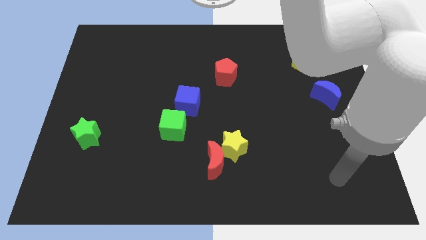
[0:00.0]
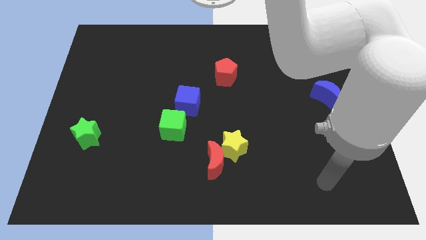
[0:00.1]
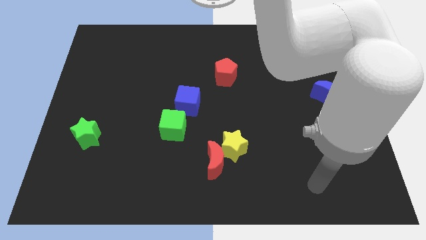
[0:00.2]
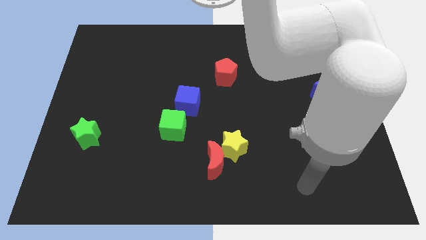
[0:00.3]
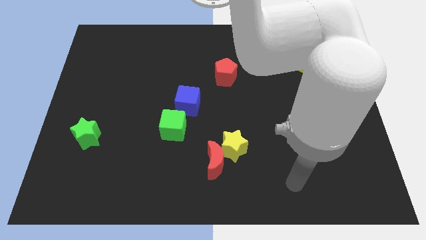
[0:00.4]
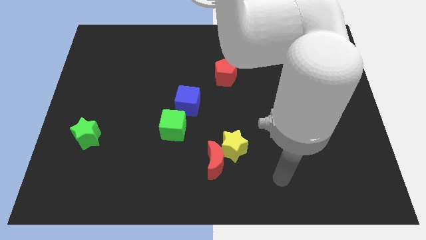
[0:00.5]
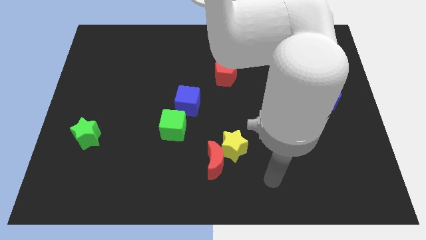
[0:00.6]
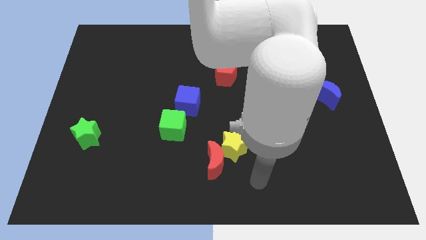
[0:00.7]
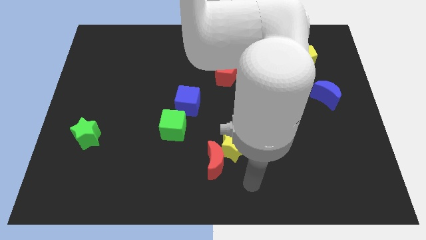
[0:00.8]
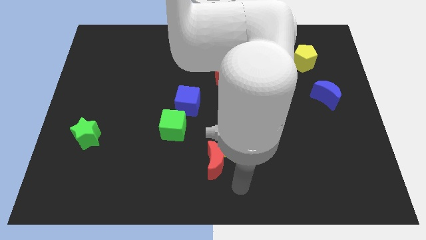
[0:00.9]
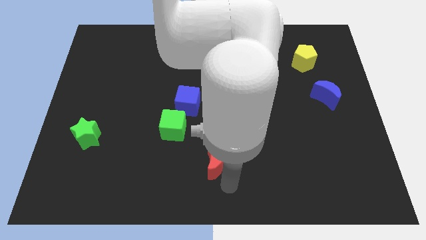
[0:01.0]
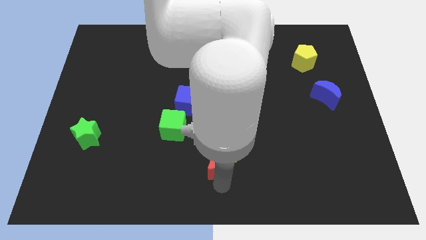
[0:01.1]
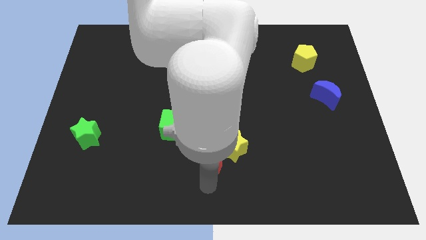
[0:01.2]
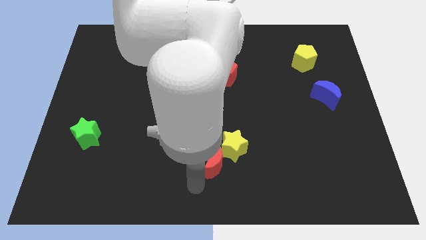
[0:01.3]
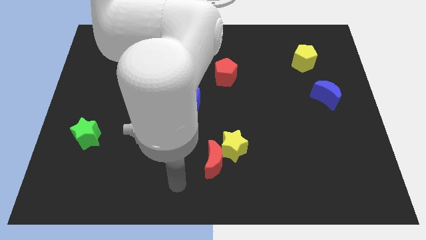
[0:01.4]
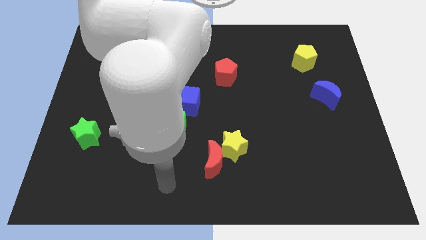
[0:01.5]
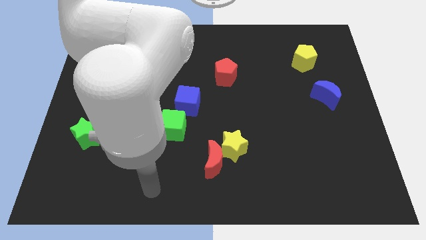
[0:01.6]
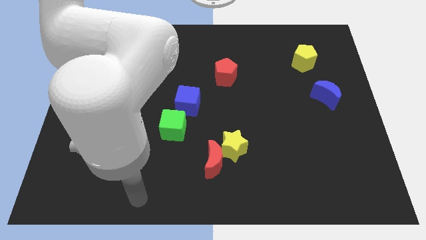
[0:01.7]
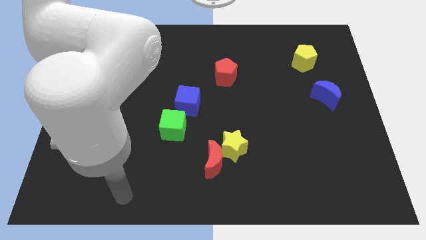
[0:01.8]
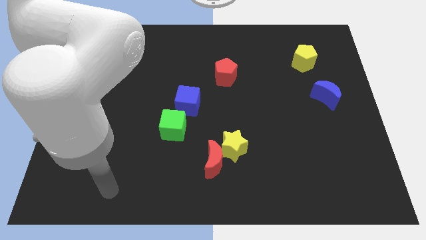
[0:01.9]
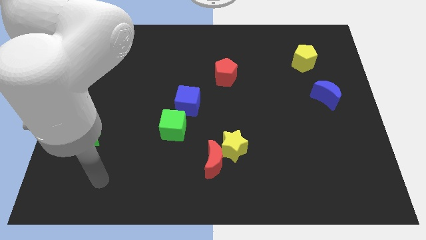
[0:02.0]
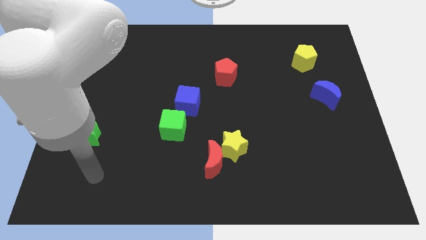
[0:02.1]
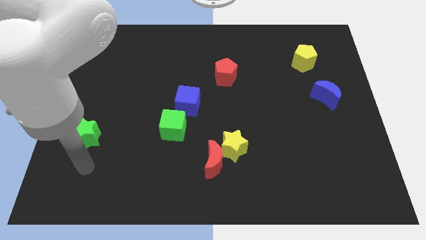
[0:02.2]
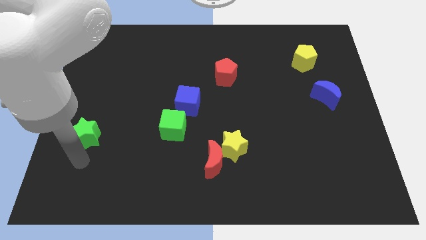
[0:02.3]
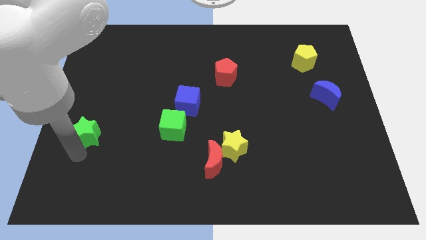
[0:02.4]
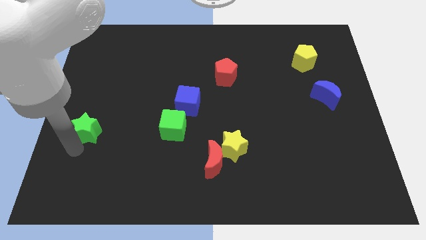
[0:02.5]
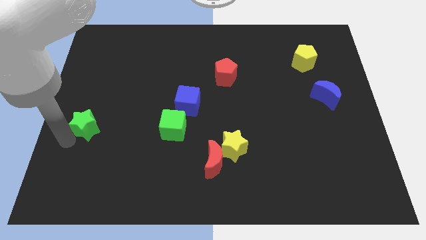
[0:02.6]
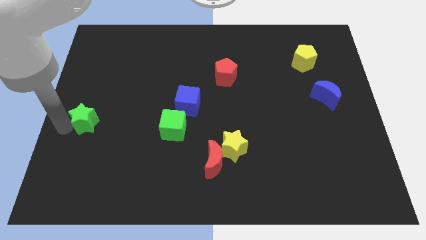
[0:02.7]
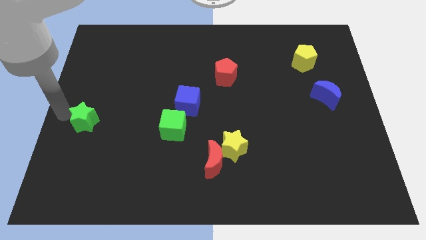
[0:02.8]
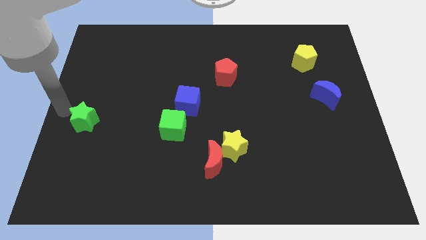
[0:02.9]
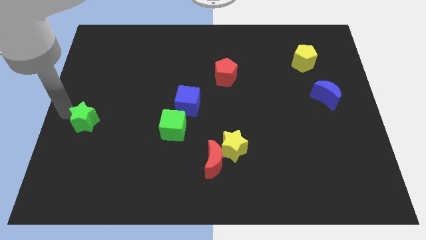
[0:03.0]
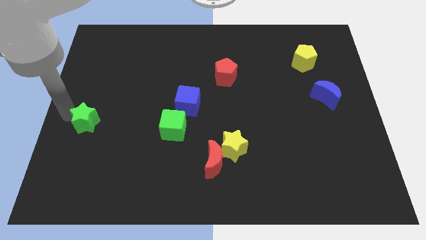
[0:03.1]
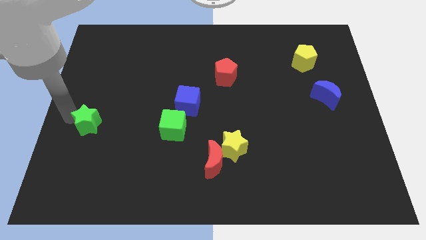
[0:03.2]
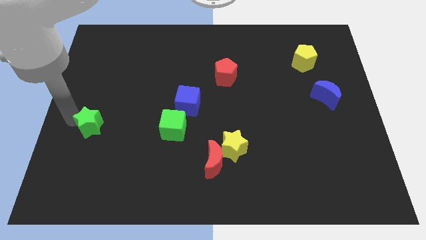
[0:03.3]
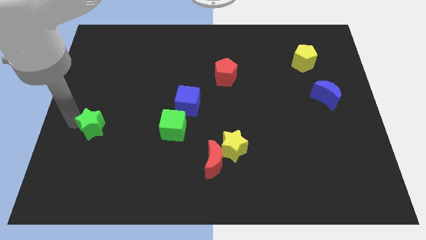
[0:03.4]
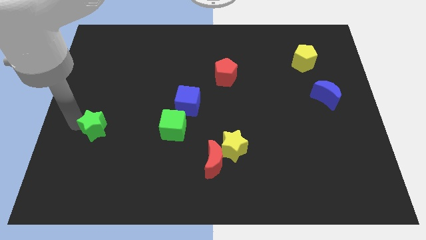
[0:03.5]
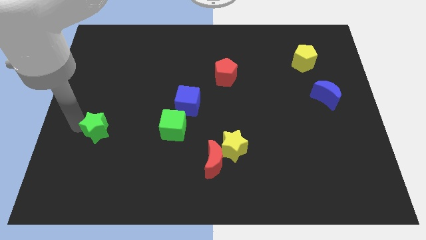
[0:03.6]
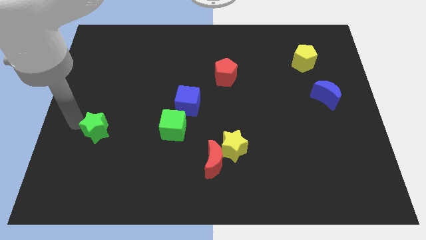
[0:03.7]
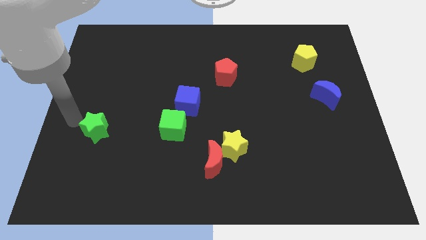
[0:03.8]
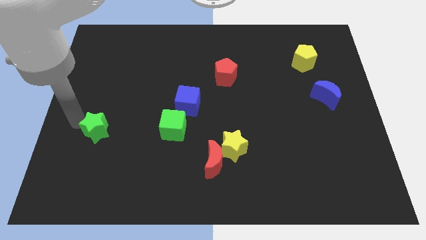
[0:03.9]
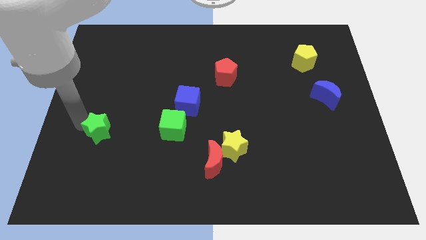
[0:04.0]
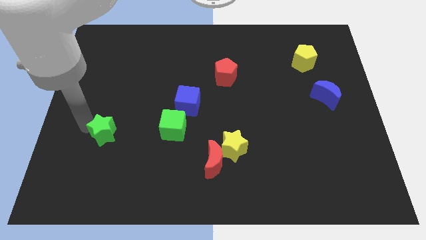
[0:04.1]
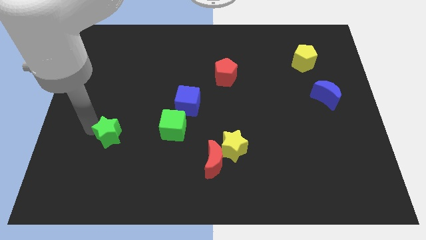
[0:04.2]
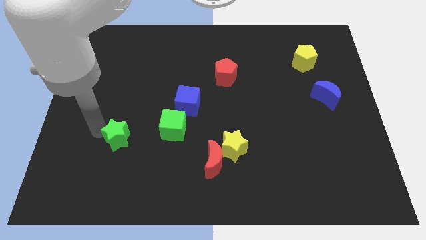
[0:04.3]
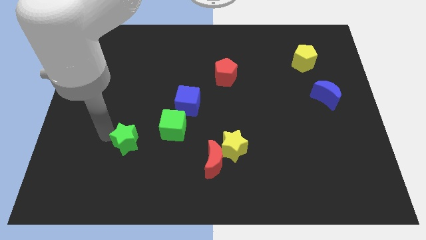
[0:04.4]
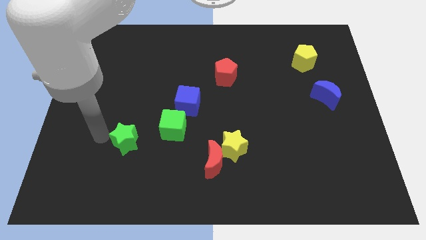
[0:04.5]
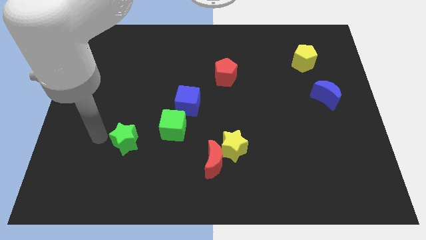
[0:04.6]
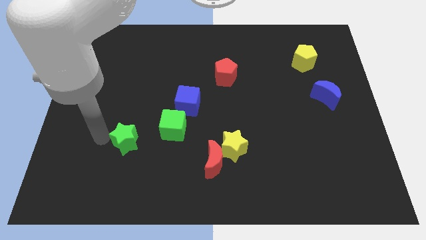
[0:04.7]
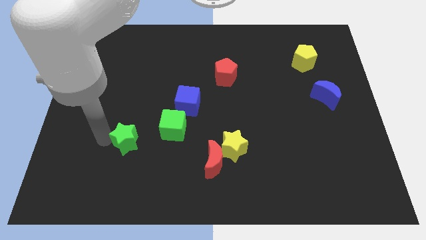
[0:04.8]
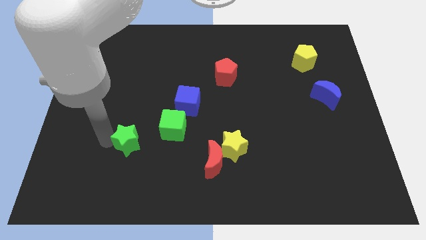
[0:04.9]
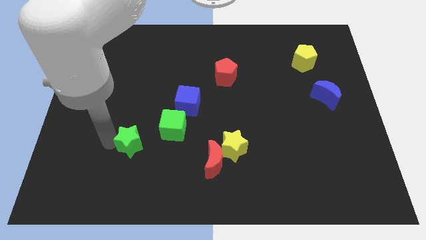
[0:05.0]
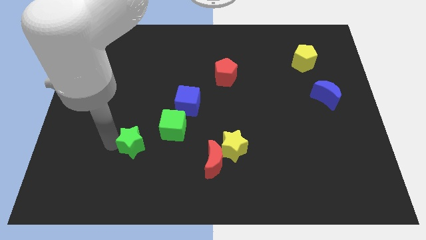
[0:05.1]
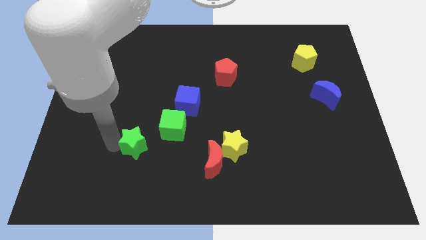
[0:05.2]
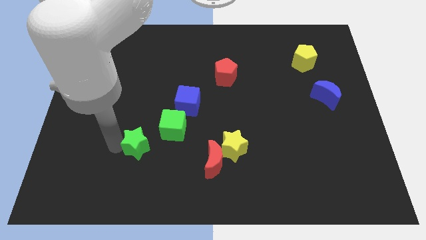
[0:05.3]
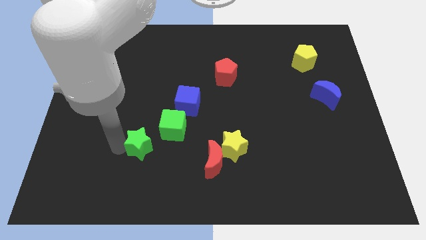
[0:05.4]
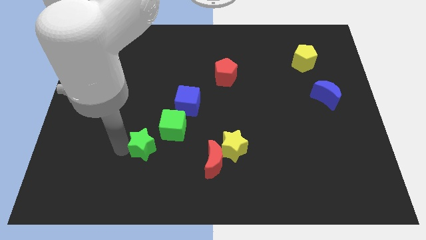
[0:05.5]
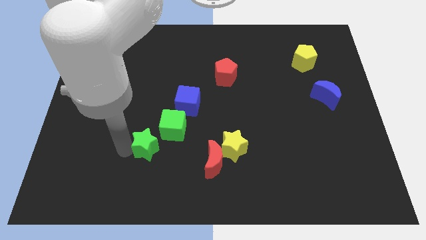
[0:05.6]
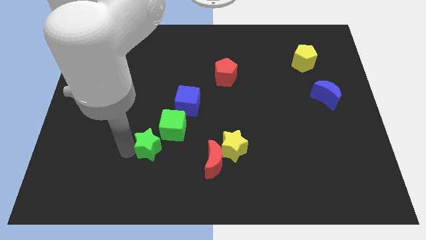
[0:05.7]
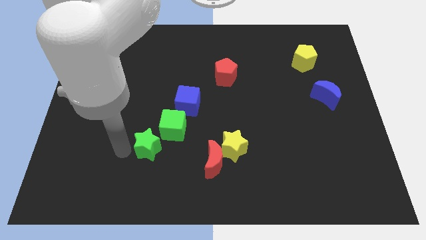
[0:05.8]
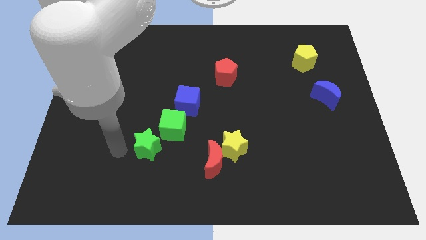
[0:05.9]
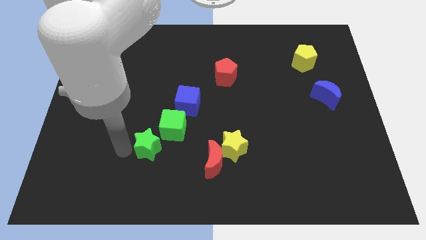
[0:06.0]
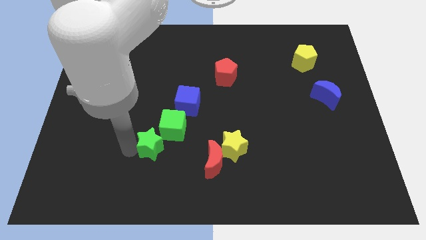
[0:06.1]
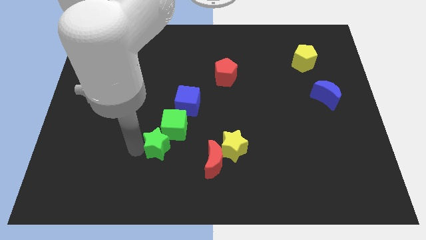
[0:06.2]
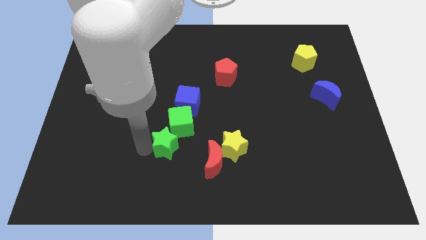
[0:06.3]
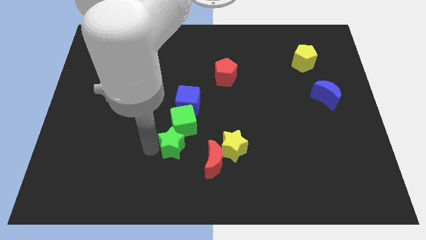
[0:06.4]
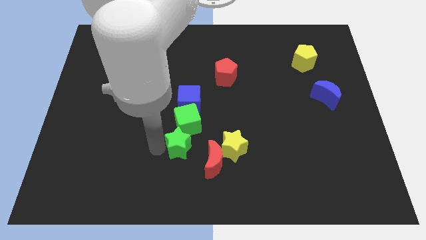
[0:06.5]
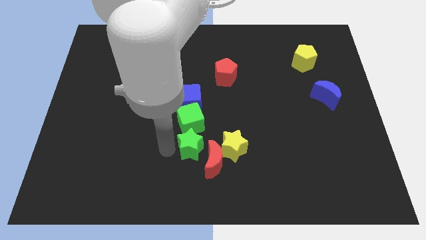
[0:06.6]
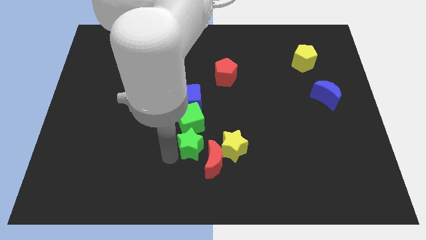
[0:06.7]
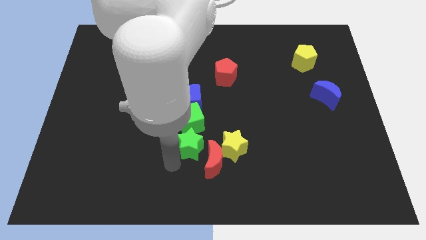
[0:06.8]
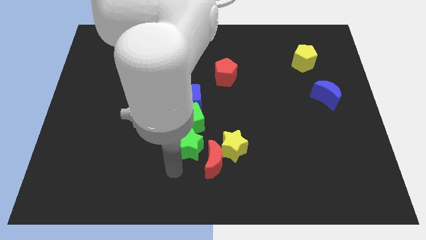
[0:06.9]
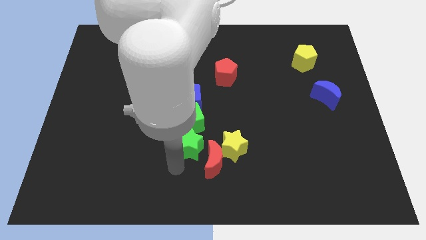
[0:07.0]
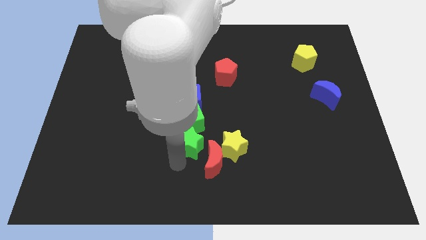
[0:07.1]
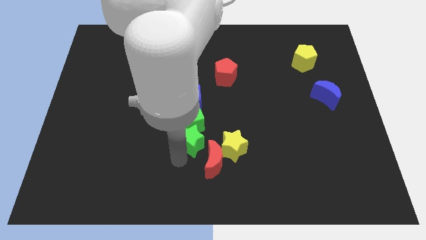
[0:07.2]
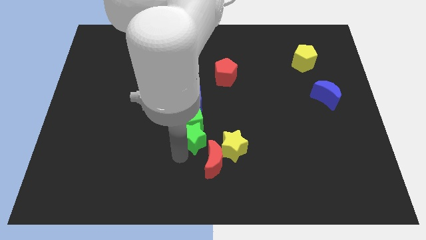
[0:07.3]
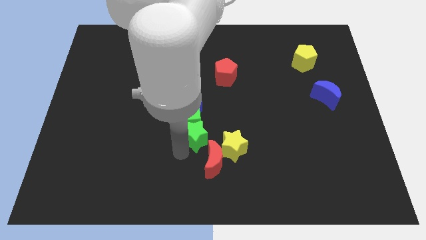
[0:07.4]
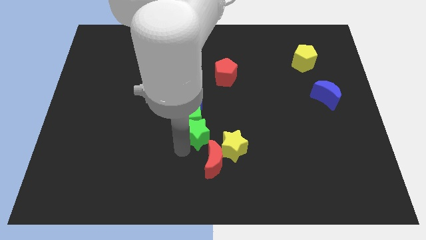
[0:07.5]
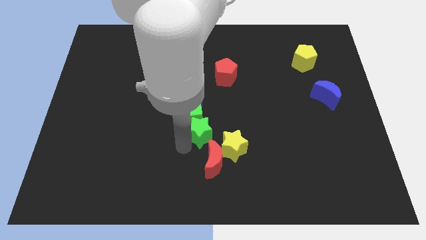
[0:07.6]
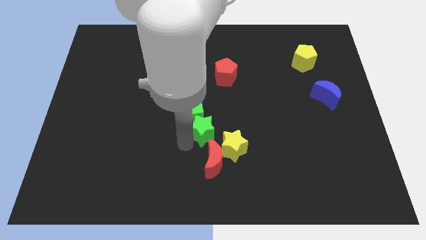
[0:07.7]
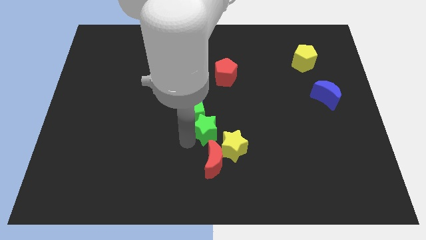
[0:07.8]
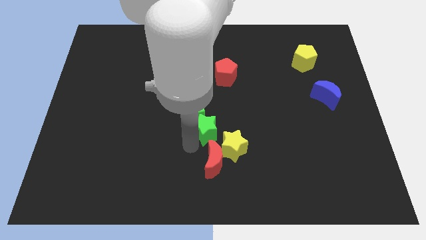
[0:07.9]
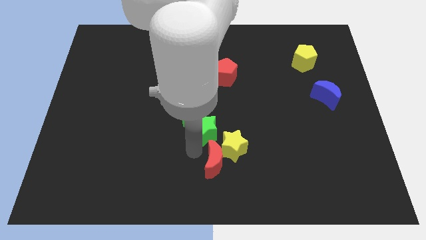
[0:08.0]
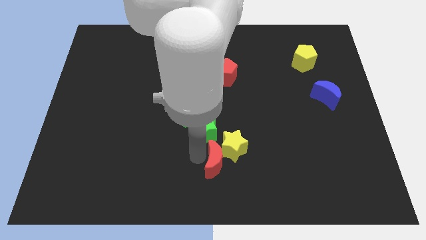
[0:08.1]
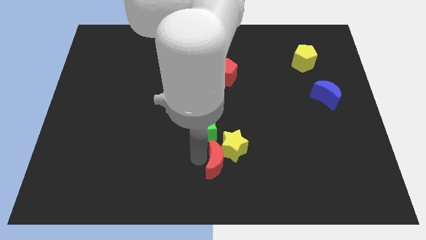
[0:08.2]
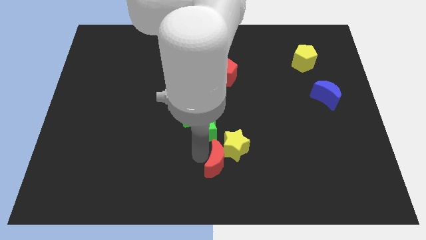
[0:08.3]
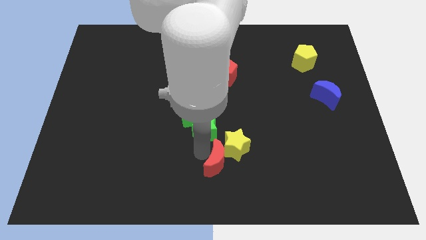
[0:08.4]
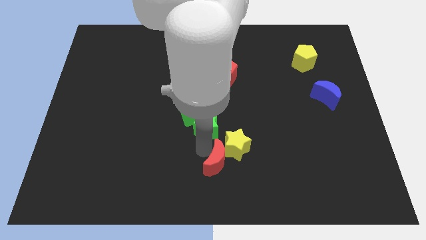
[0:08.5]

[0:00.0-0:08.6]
slide the green star to the bottom right of the blue cube
